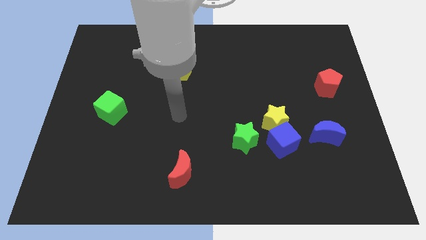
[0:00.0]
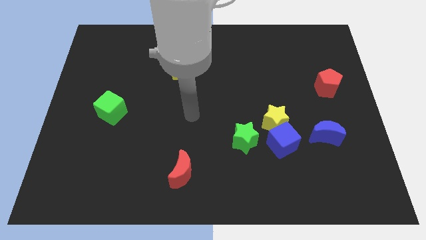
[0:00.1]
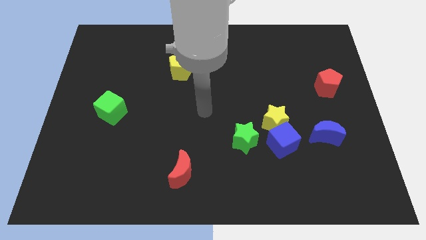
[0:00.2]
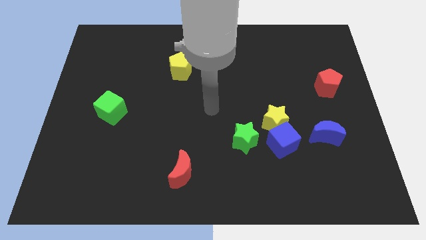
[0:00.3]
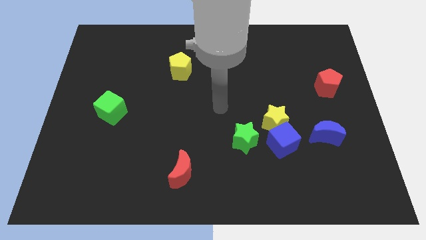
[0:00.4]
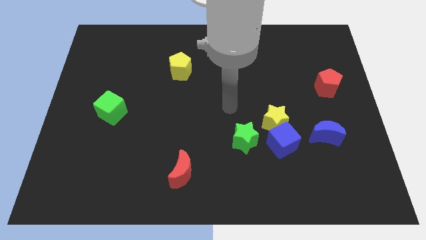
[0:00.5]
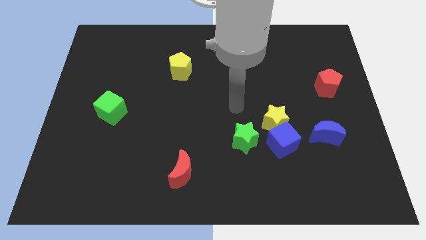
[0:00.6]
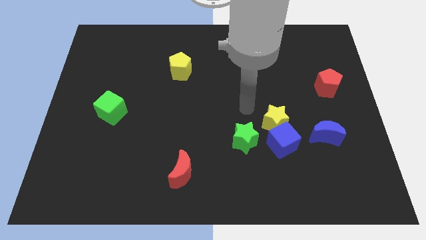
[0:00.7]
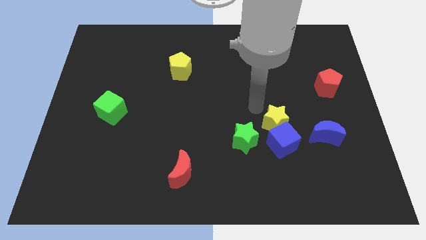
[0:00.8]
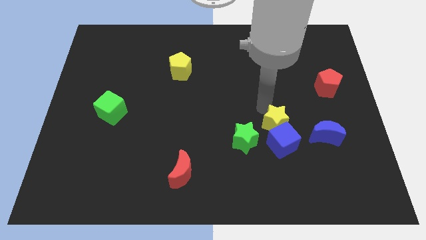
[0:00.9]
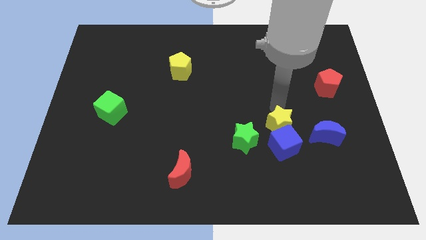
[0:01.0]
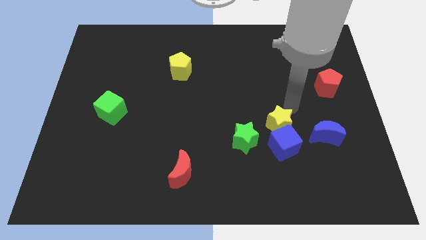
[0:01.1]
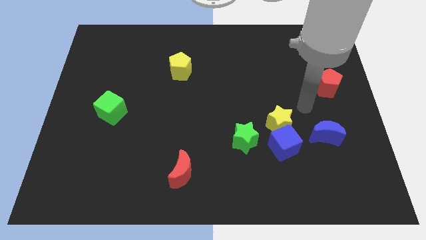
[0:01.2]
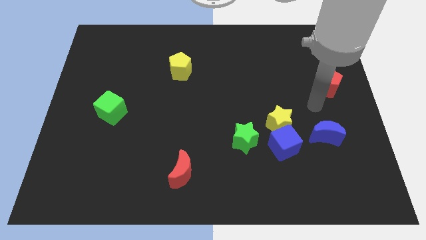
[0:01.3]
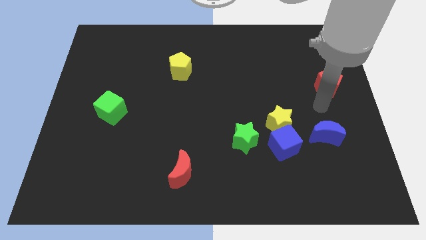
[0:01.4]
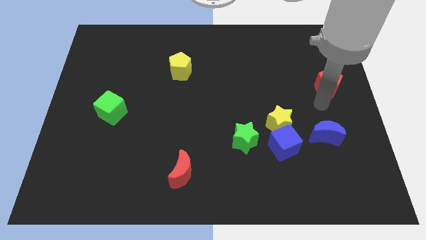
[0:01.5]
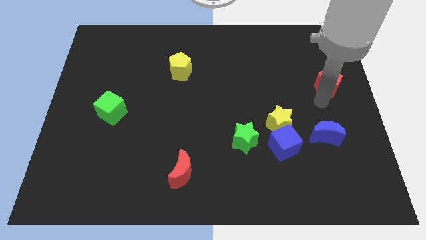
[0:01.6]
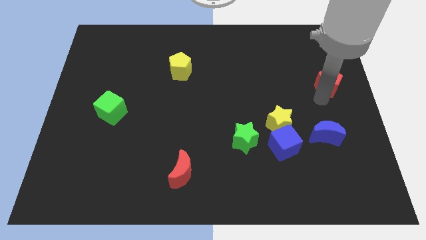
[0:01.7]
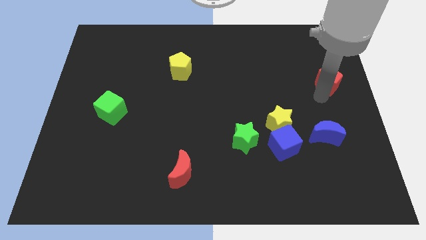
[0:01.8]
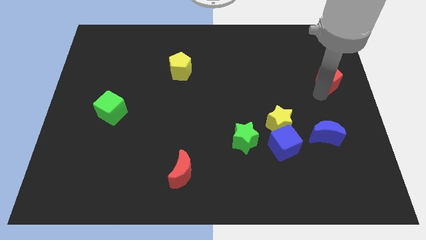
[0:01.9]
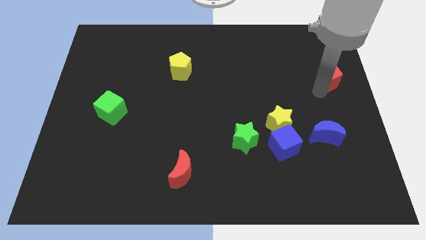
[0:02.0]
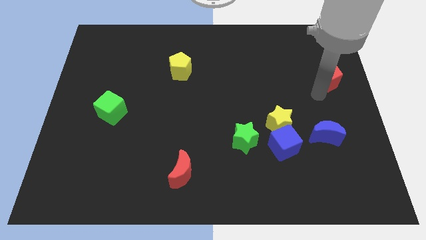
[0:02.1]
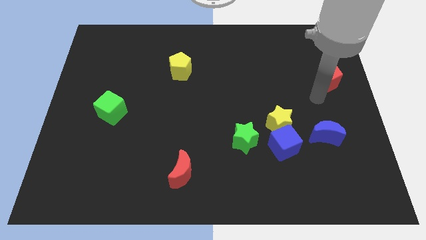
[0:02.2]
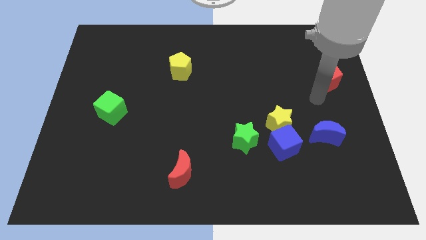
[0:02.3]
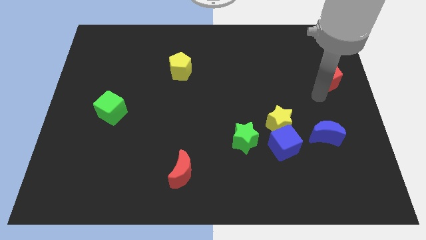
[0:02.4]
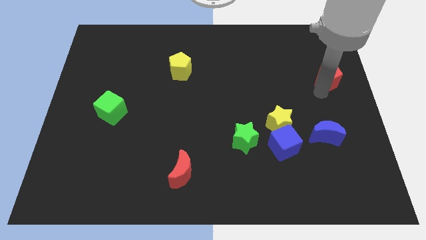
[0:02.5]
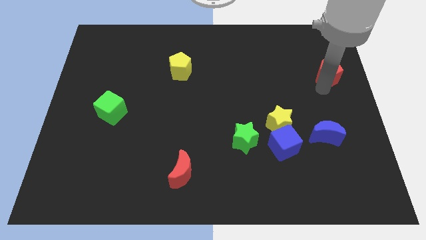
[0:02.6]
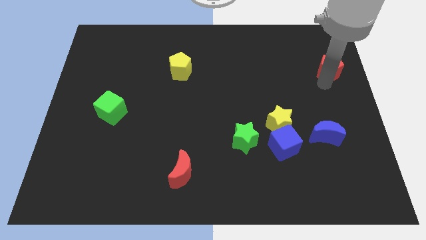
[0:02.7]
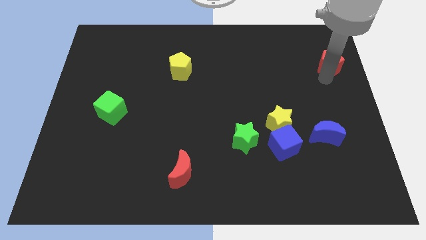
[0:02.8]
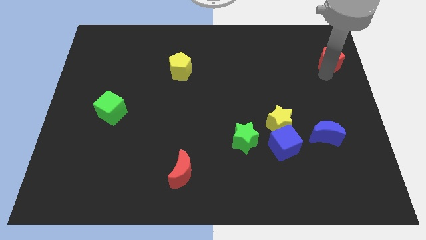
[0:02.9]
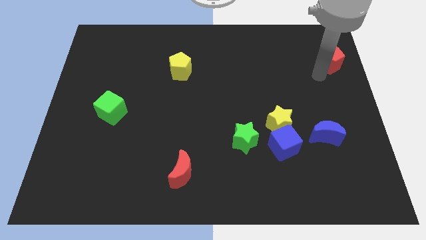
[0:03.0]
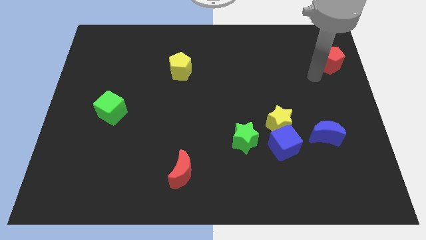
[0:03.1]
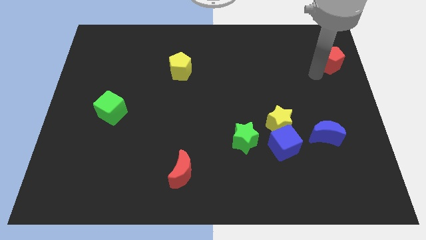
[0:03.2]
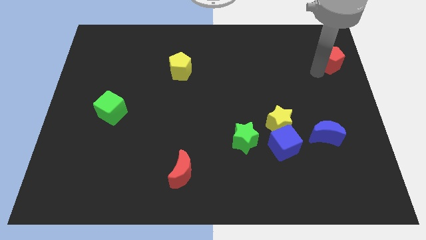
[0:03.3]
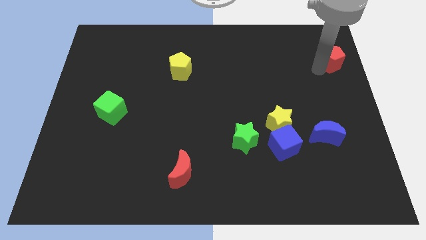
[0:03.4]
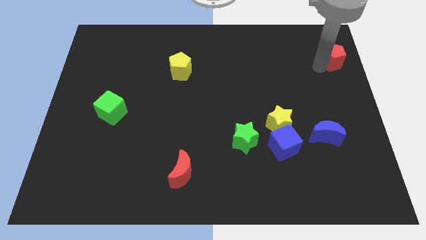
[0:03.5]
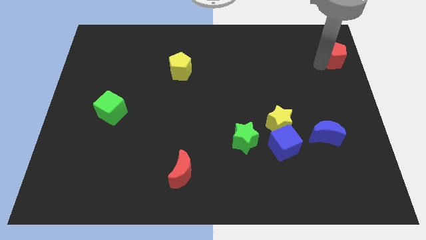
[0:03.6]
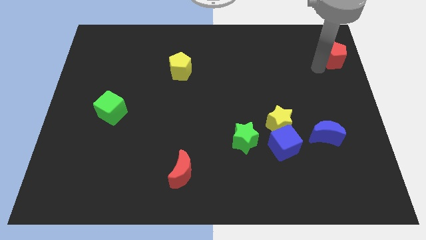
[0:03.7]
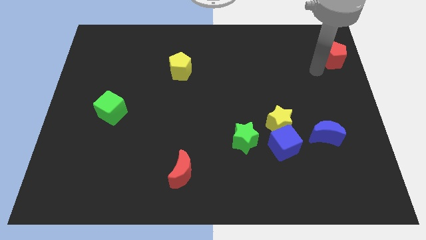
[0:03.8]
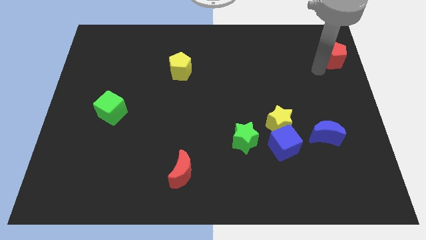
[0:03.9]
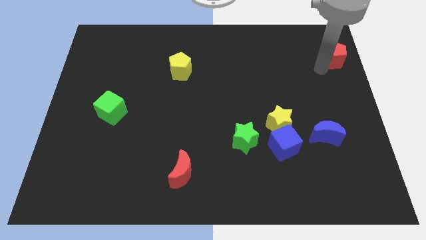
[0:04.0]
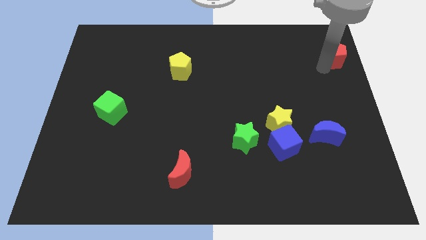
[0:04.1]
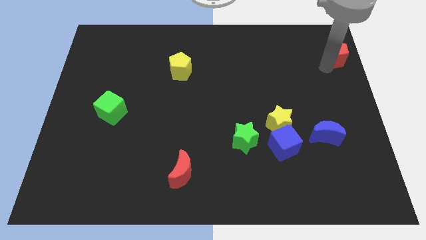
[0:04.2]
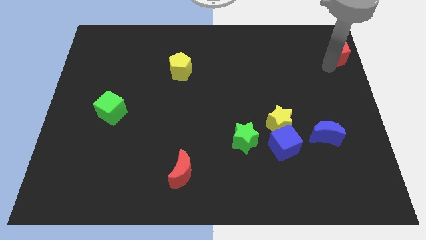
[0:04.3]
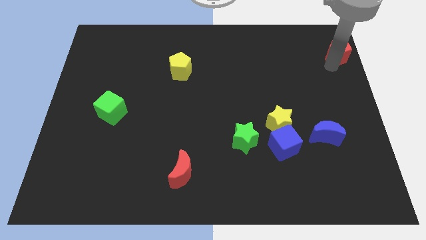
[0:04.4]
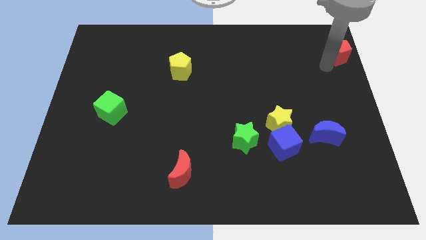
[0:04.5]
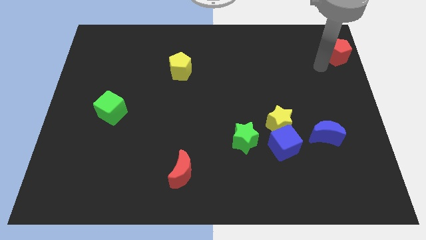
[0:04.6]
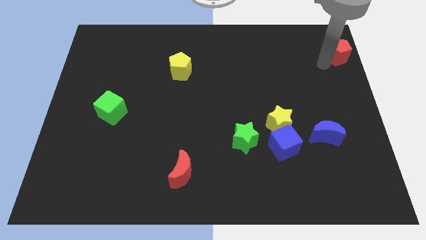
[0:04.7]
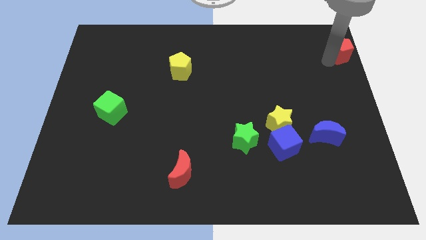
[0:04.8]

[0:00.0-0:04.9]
push the red pentagon to the top right of the board

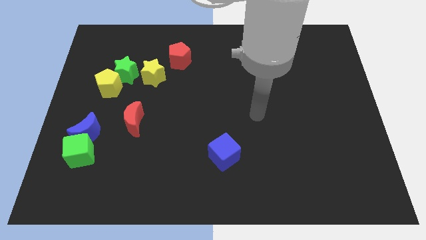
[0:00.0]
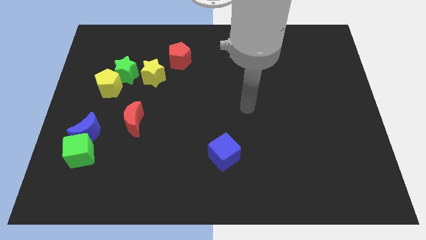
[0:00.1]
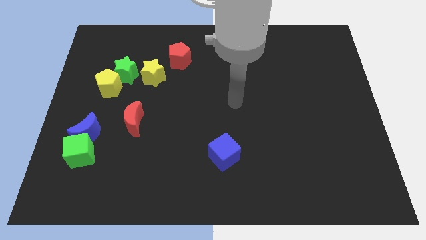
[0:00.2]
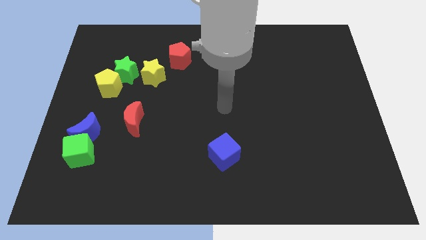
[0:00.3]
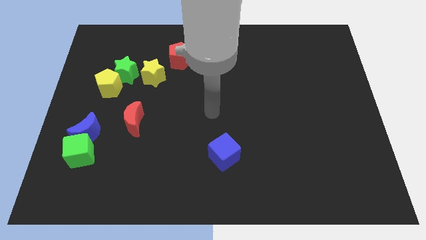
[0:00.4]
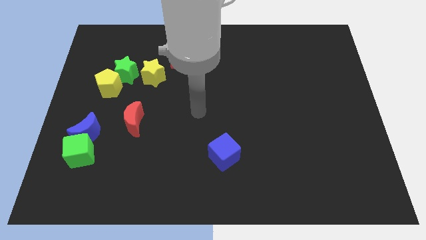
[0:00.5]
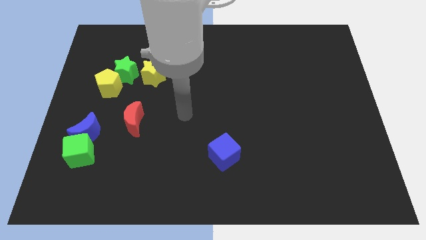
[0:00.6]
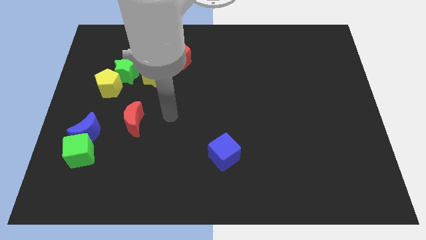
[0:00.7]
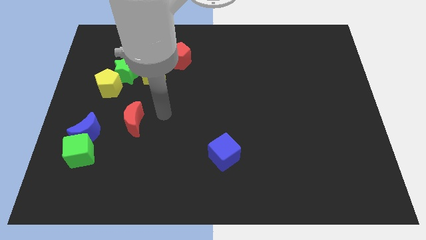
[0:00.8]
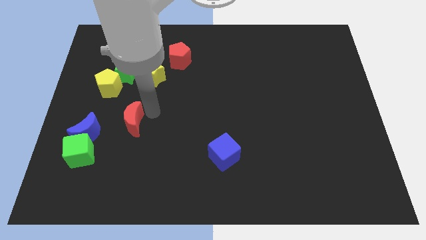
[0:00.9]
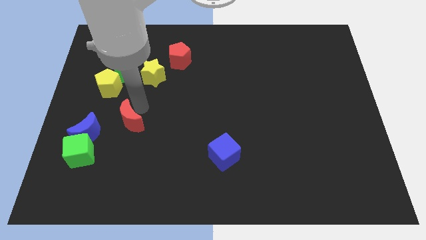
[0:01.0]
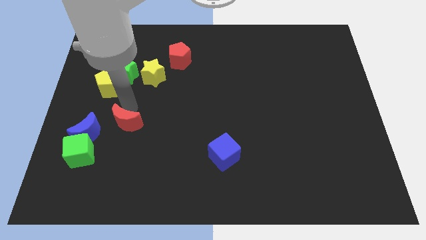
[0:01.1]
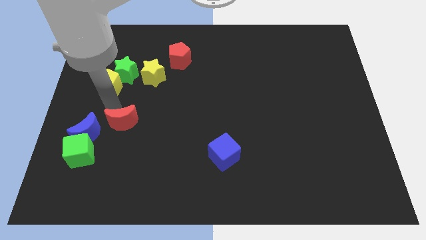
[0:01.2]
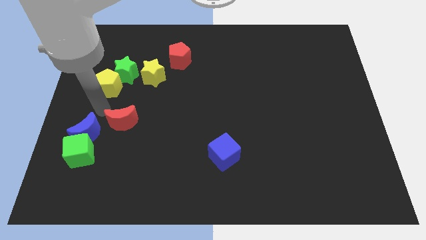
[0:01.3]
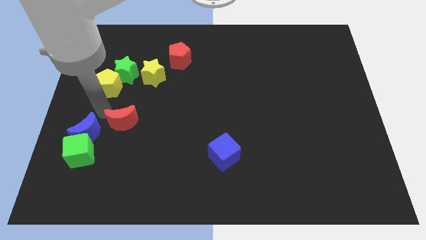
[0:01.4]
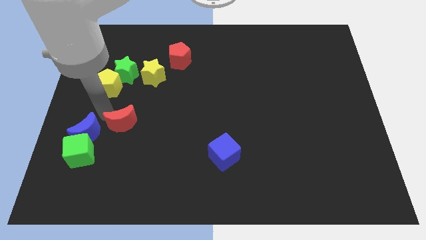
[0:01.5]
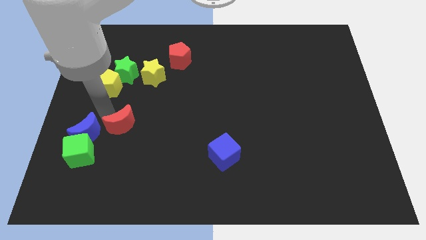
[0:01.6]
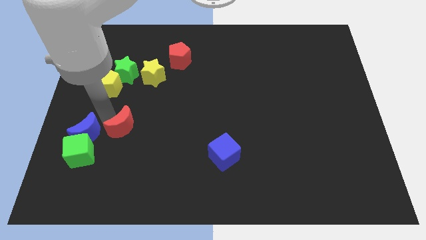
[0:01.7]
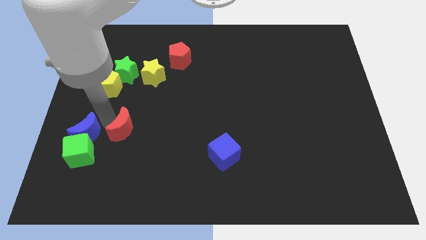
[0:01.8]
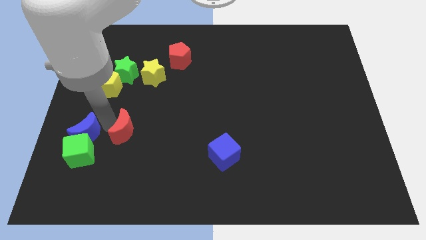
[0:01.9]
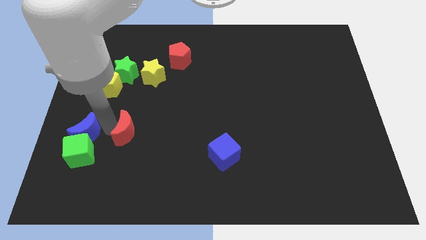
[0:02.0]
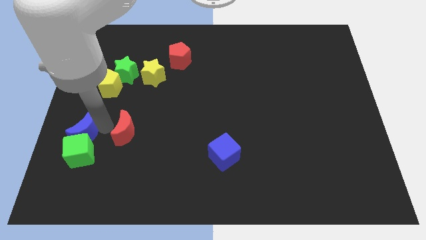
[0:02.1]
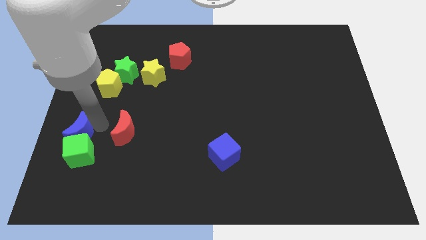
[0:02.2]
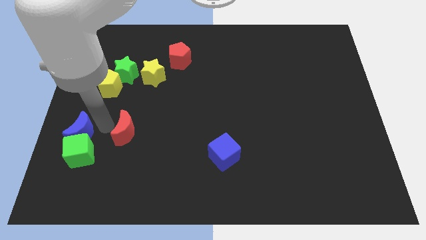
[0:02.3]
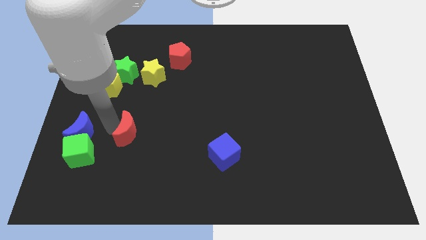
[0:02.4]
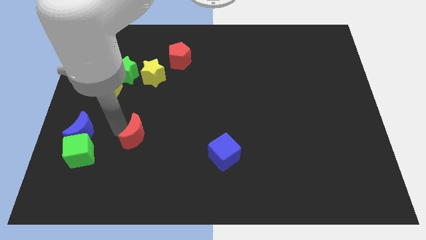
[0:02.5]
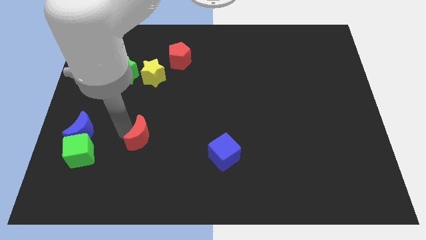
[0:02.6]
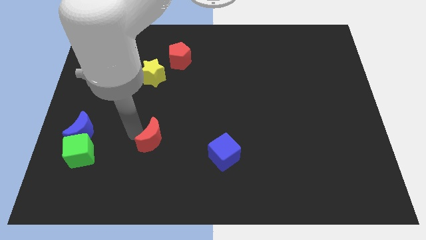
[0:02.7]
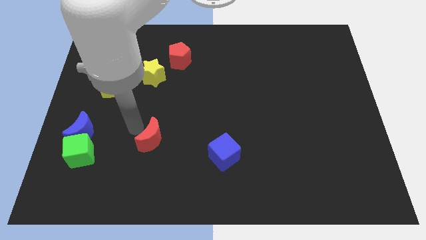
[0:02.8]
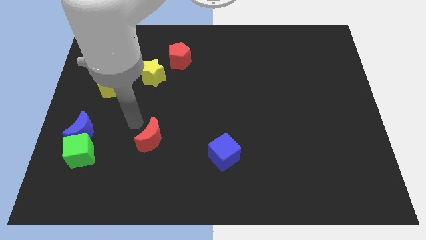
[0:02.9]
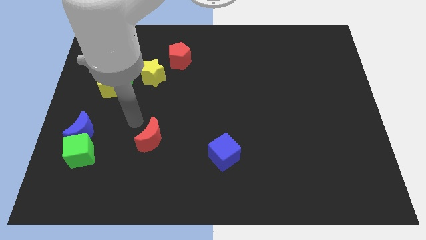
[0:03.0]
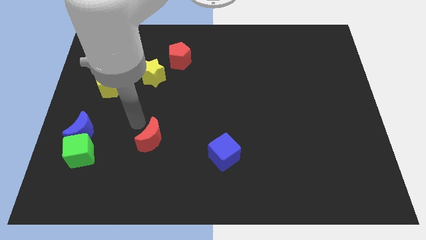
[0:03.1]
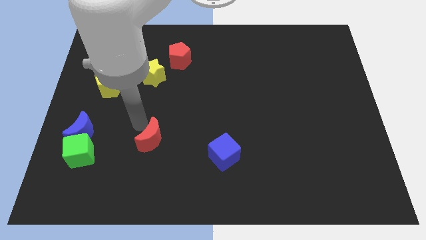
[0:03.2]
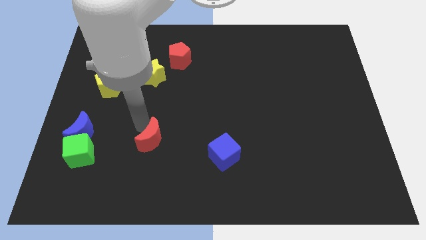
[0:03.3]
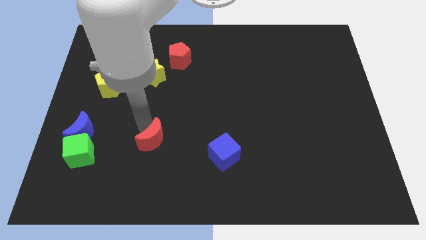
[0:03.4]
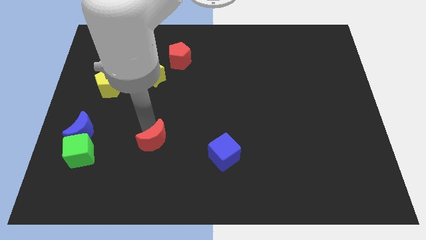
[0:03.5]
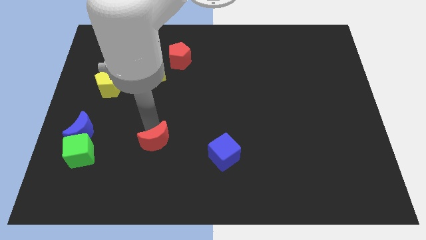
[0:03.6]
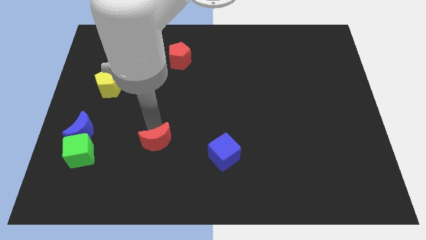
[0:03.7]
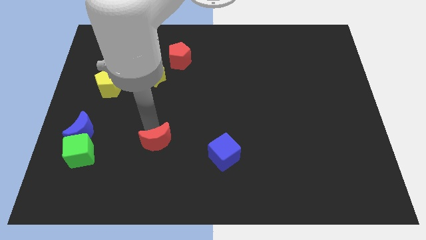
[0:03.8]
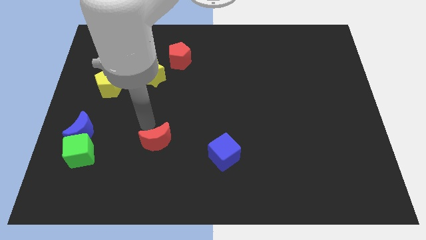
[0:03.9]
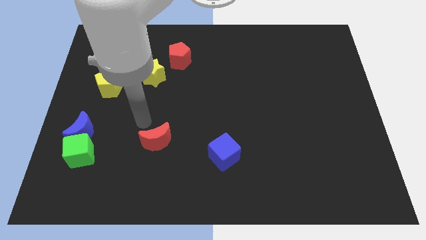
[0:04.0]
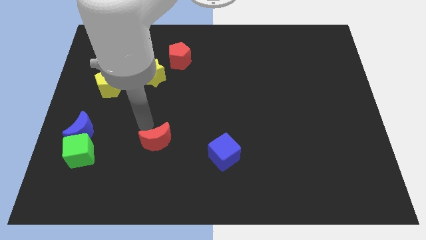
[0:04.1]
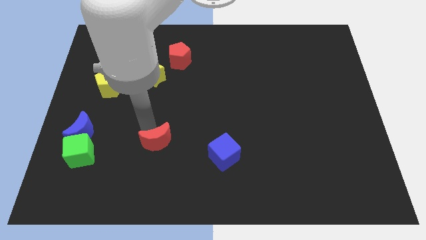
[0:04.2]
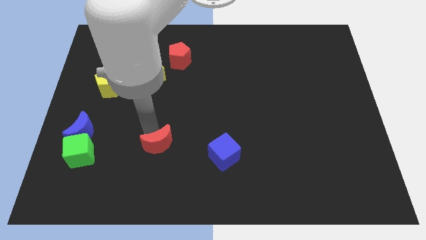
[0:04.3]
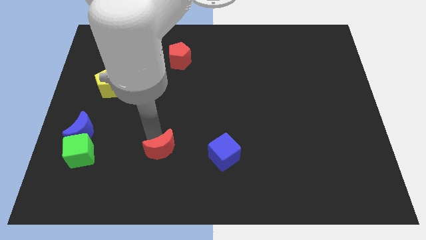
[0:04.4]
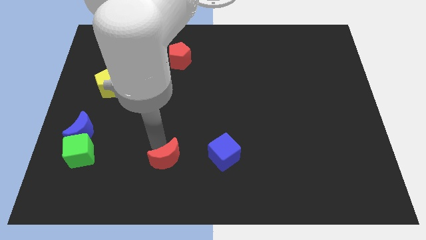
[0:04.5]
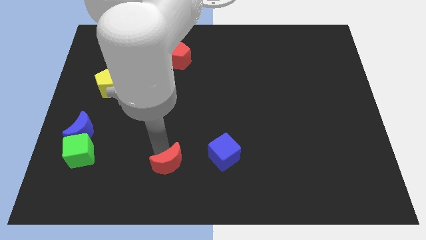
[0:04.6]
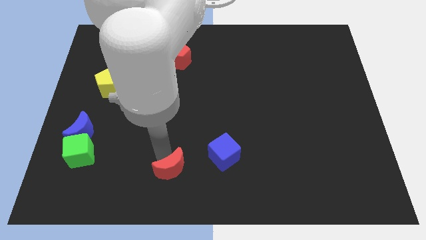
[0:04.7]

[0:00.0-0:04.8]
put the red moon to the bottom side
